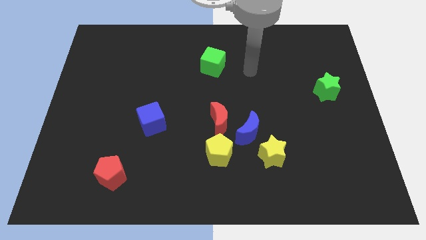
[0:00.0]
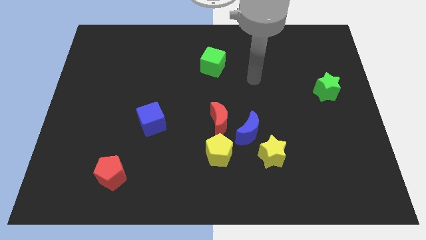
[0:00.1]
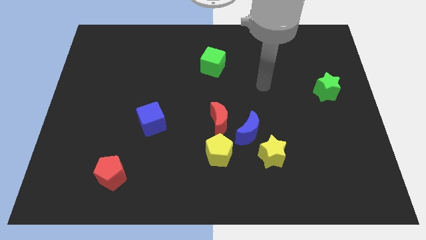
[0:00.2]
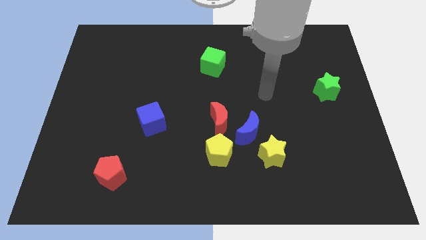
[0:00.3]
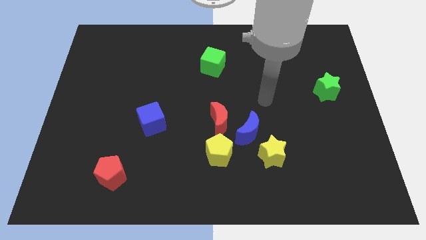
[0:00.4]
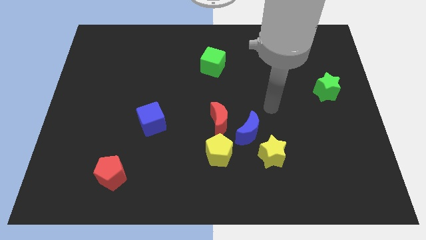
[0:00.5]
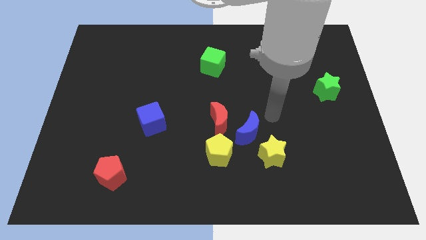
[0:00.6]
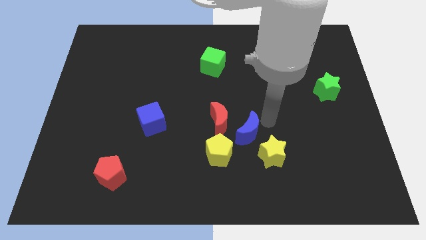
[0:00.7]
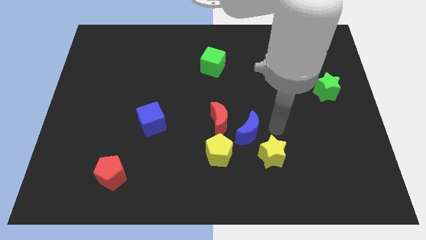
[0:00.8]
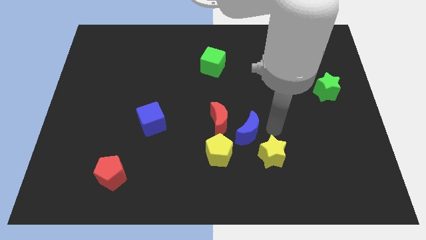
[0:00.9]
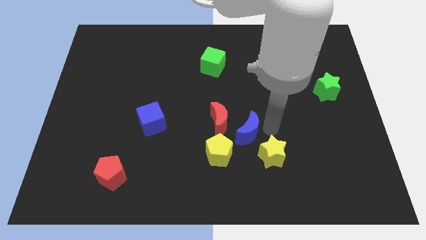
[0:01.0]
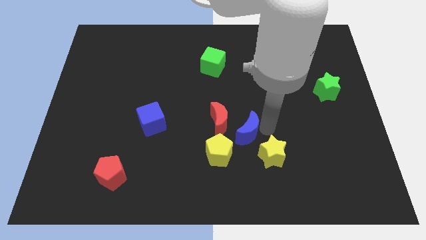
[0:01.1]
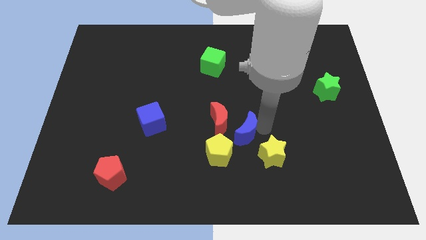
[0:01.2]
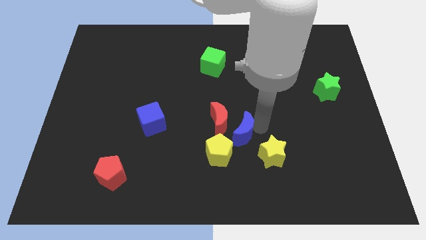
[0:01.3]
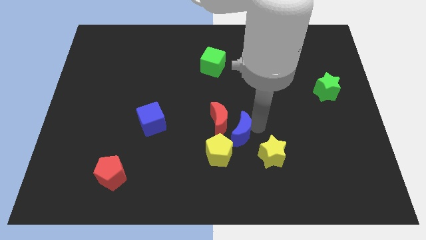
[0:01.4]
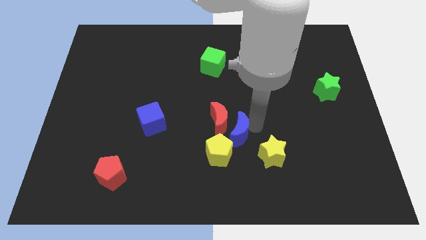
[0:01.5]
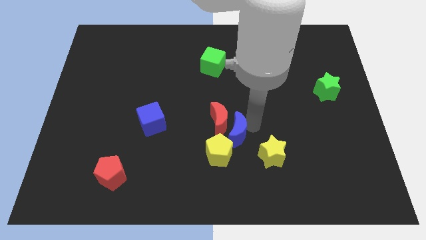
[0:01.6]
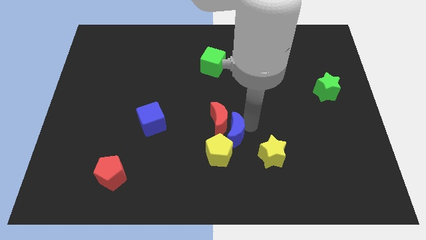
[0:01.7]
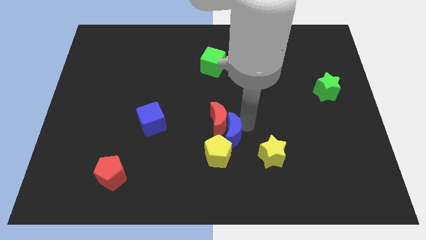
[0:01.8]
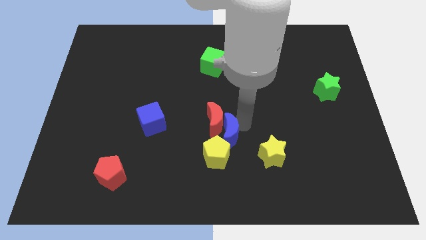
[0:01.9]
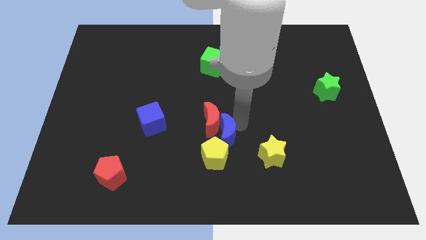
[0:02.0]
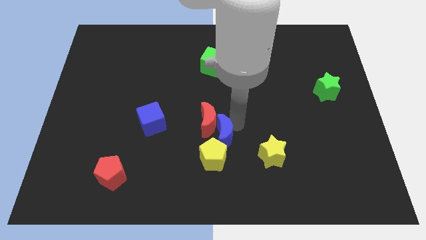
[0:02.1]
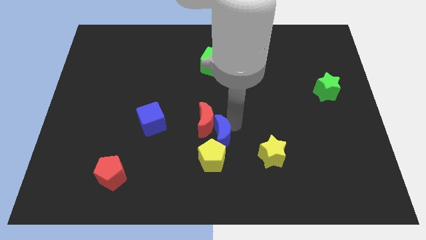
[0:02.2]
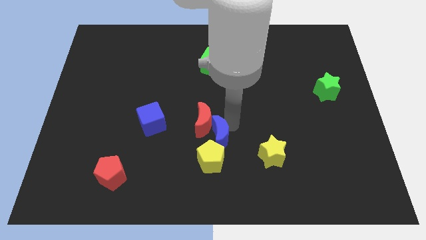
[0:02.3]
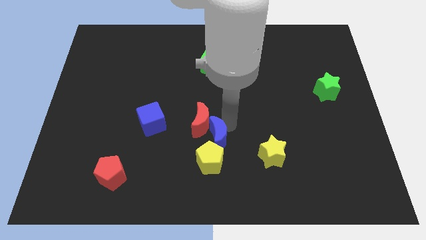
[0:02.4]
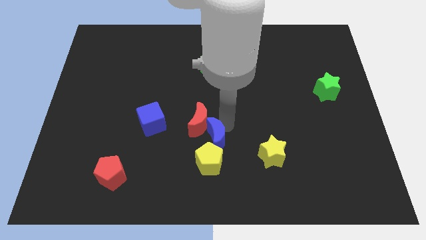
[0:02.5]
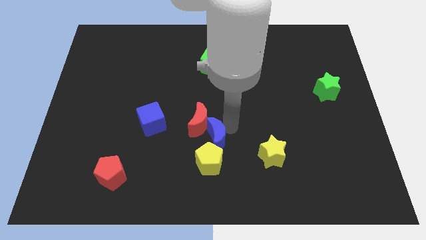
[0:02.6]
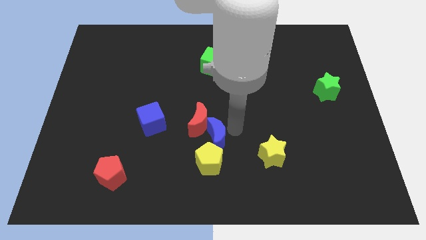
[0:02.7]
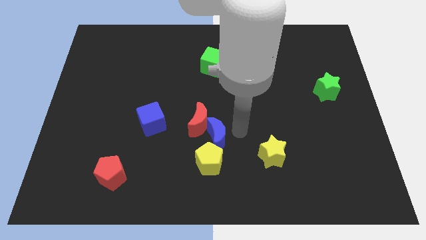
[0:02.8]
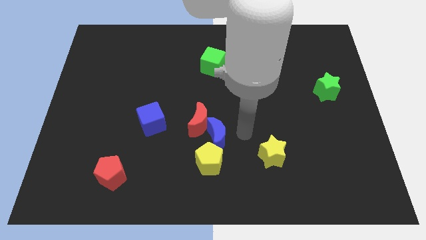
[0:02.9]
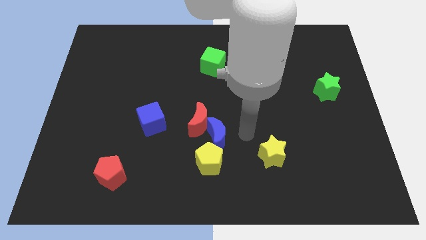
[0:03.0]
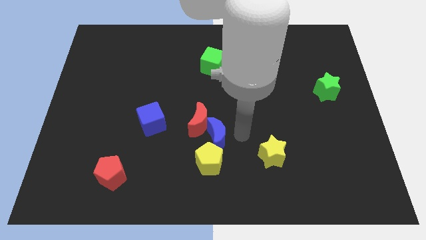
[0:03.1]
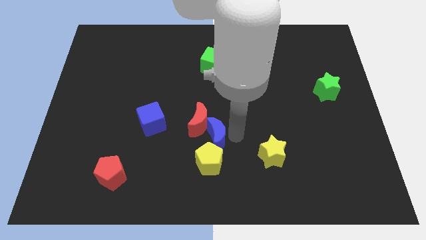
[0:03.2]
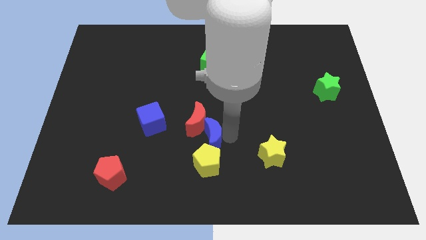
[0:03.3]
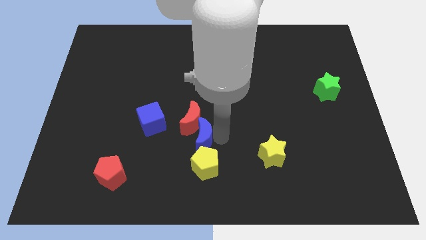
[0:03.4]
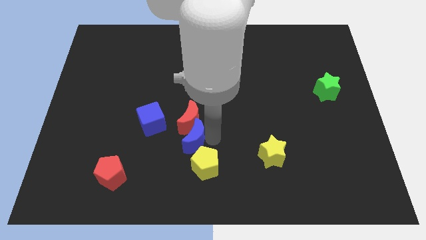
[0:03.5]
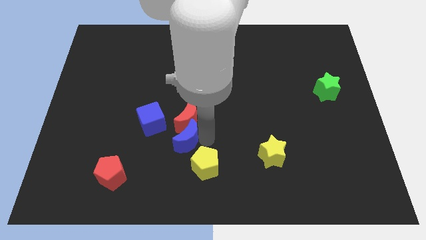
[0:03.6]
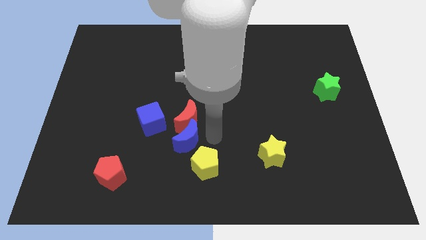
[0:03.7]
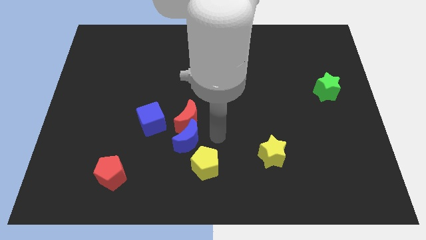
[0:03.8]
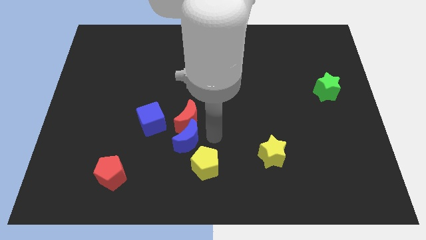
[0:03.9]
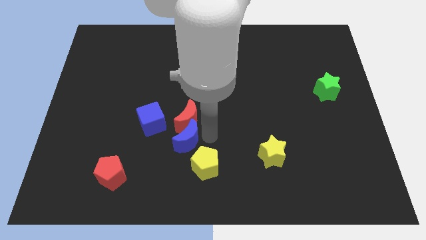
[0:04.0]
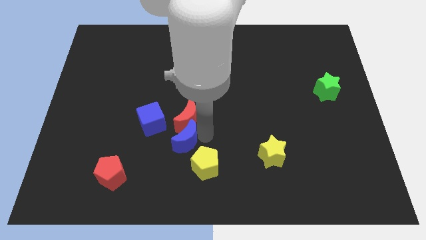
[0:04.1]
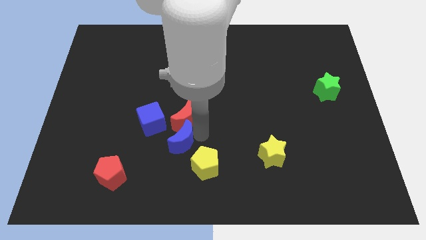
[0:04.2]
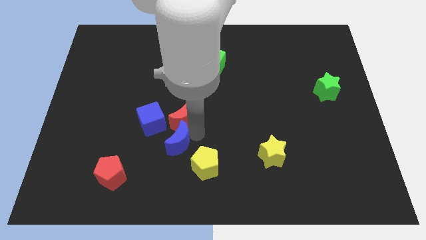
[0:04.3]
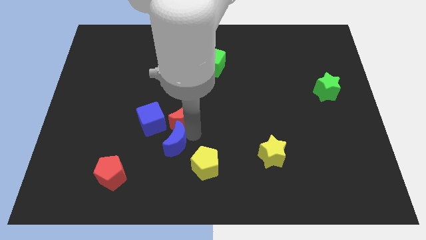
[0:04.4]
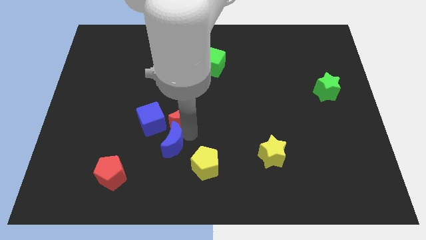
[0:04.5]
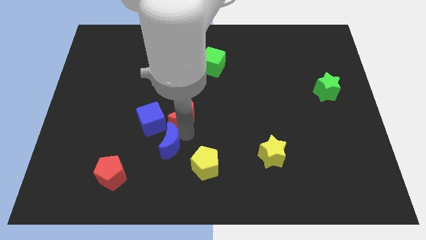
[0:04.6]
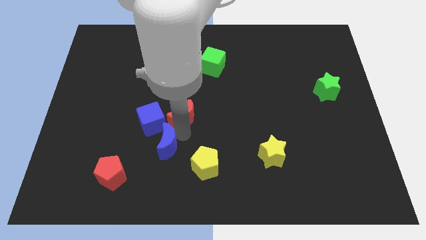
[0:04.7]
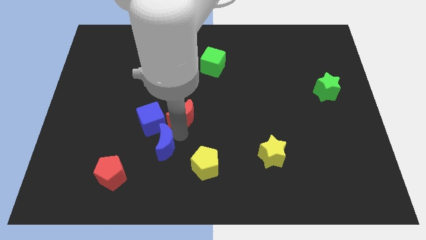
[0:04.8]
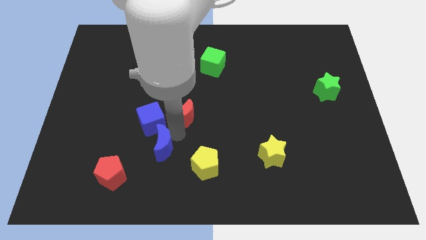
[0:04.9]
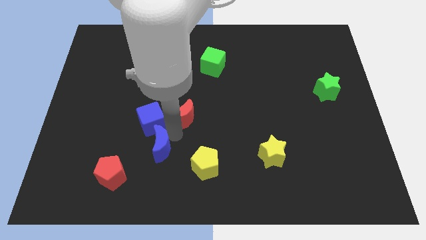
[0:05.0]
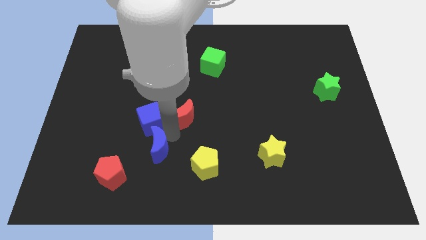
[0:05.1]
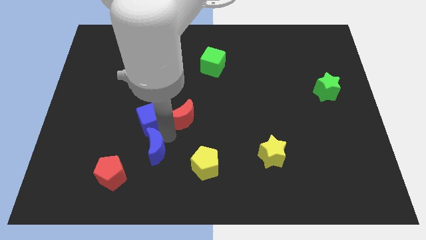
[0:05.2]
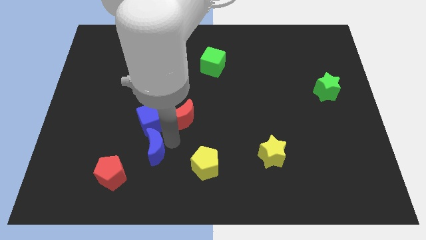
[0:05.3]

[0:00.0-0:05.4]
slide the blue moon to the left

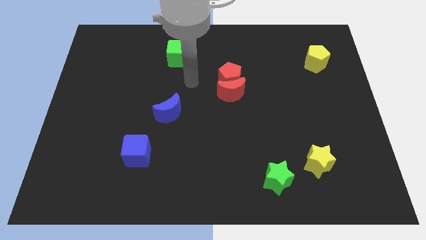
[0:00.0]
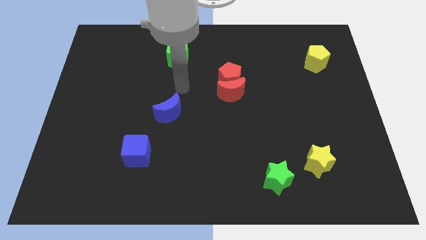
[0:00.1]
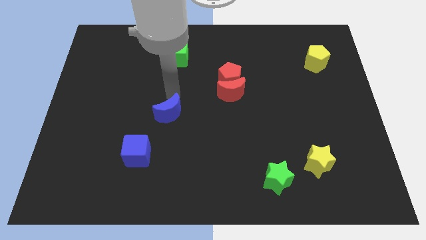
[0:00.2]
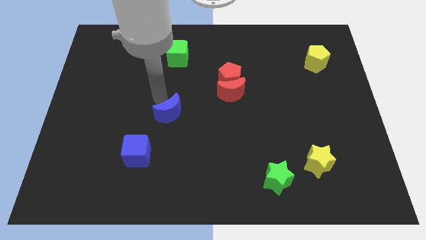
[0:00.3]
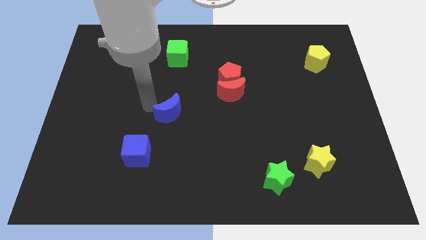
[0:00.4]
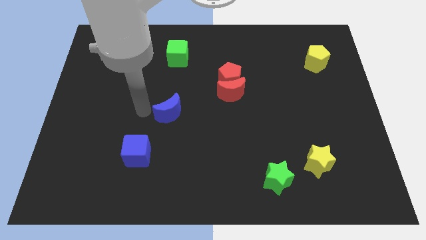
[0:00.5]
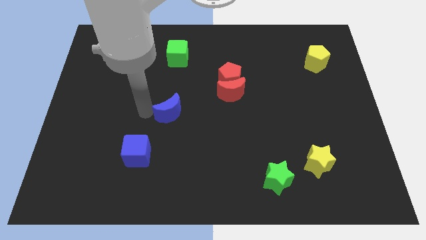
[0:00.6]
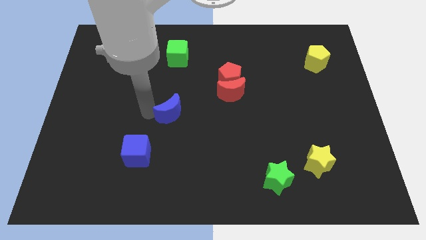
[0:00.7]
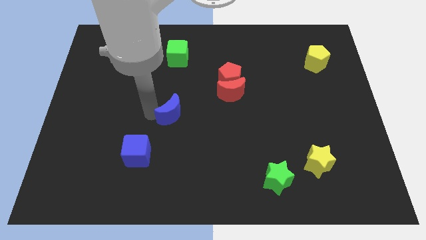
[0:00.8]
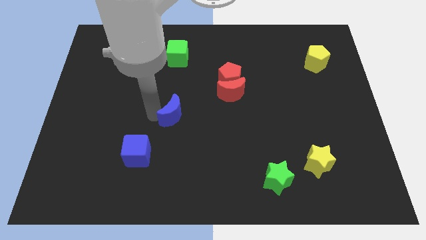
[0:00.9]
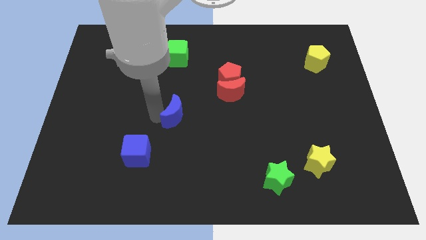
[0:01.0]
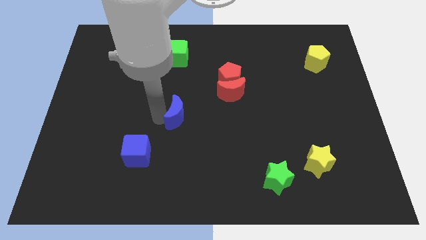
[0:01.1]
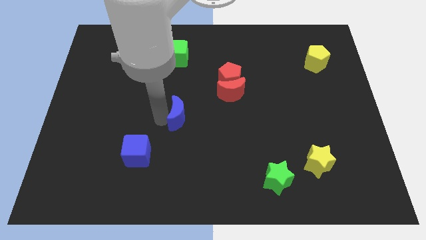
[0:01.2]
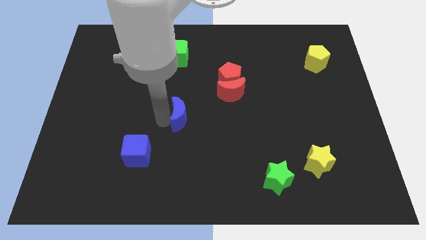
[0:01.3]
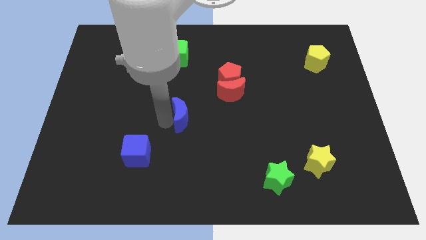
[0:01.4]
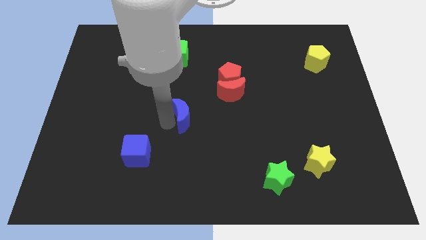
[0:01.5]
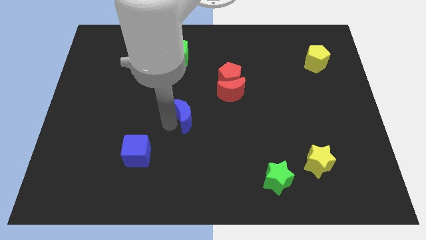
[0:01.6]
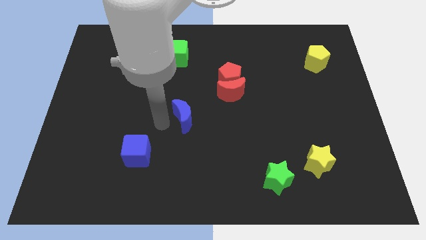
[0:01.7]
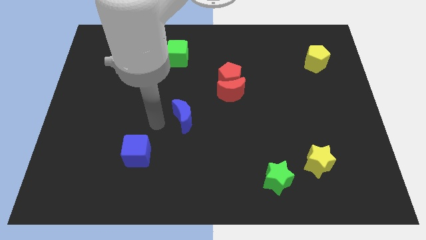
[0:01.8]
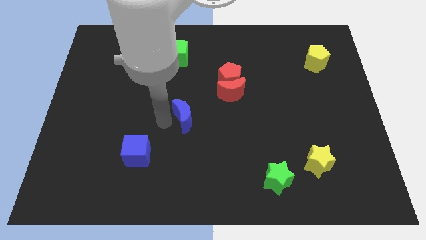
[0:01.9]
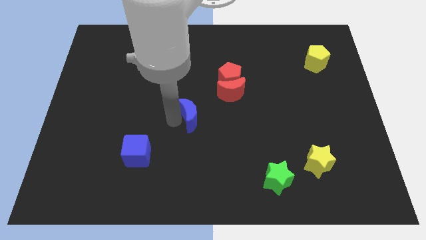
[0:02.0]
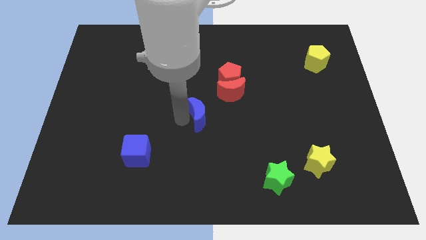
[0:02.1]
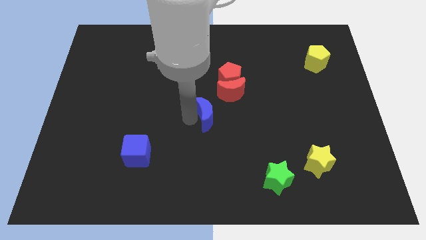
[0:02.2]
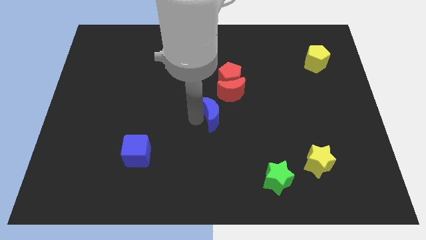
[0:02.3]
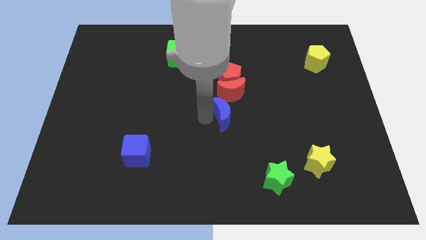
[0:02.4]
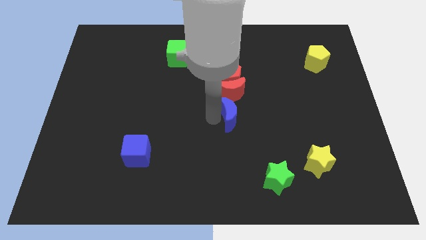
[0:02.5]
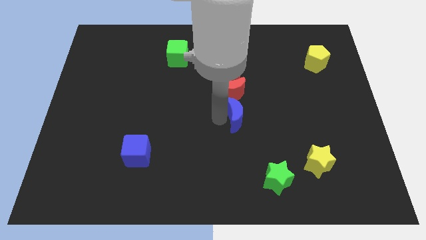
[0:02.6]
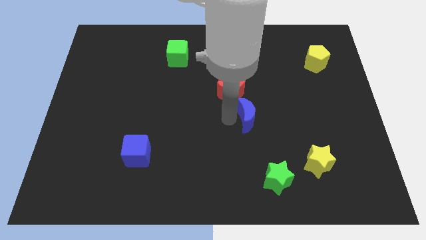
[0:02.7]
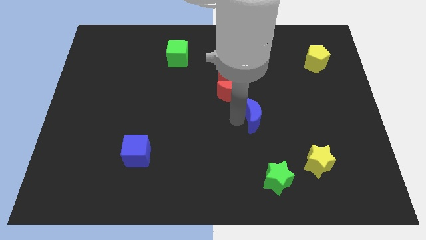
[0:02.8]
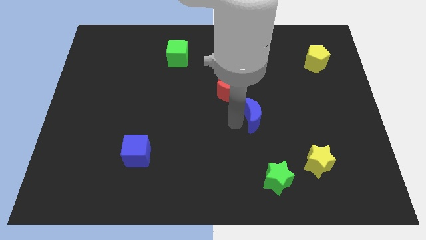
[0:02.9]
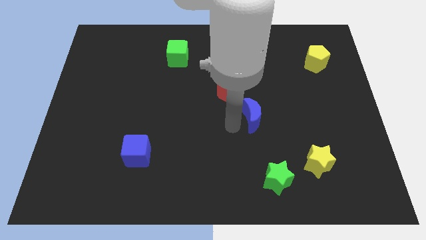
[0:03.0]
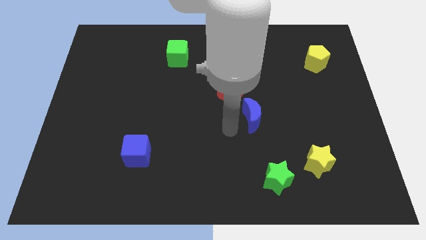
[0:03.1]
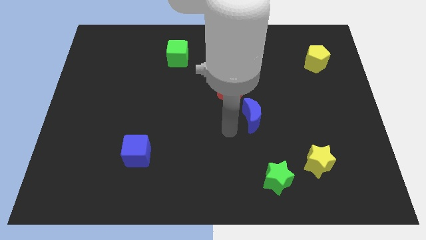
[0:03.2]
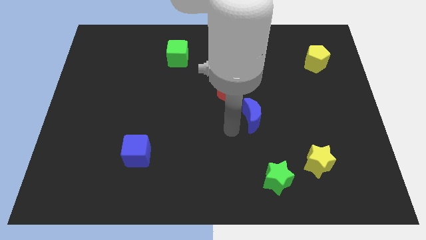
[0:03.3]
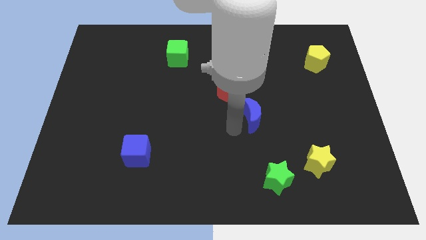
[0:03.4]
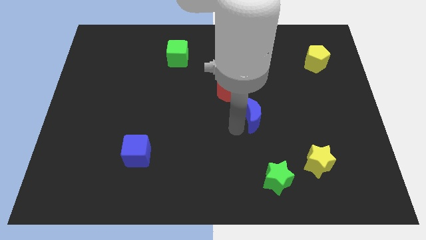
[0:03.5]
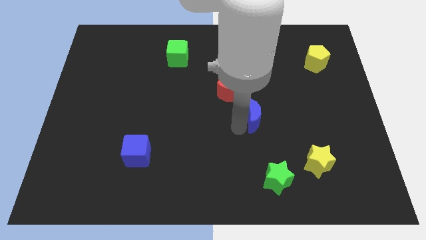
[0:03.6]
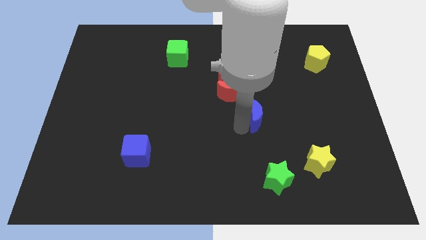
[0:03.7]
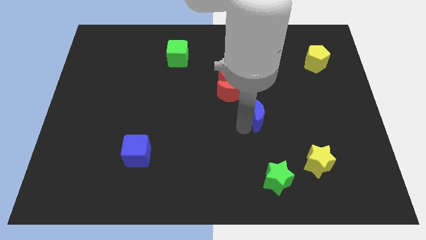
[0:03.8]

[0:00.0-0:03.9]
slide the blue moon right
